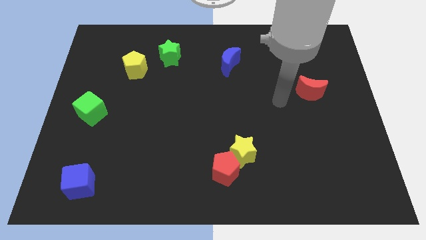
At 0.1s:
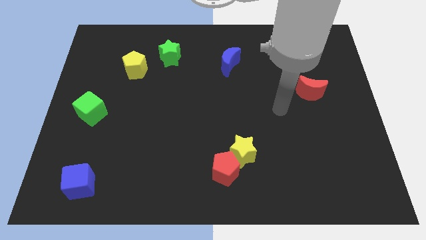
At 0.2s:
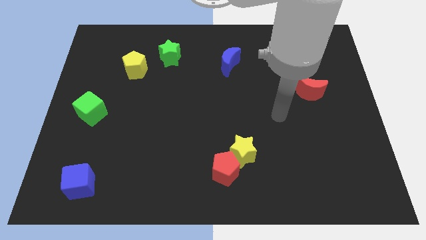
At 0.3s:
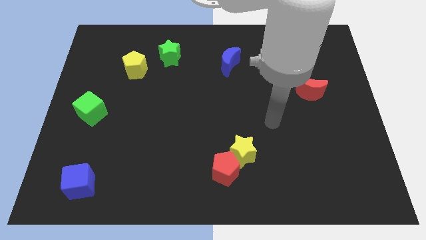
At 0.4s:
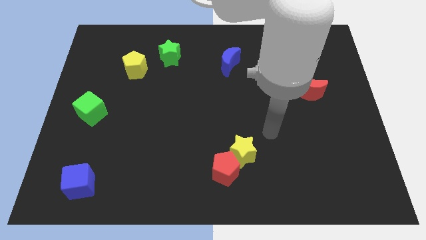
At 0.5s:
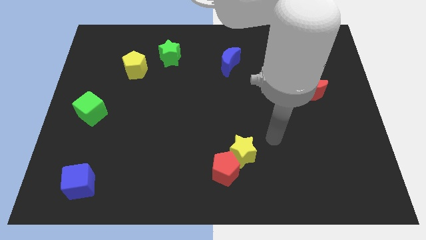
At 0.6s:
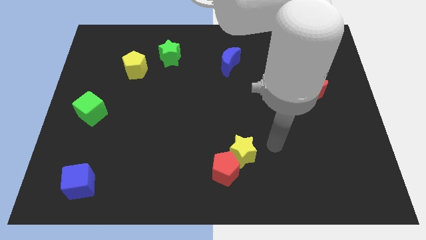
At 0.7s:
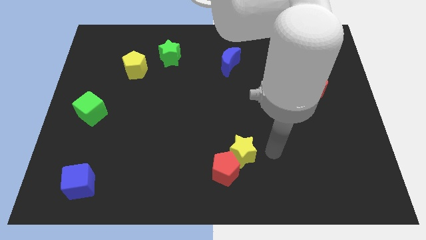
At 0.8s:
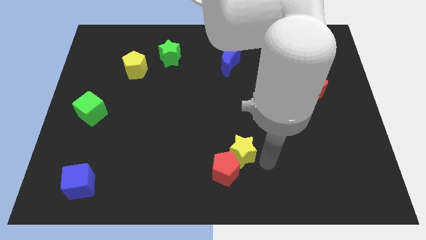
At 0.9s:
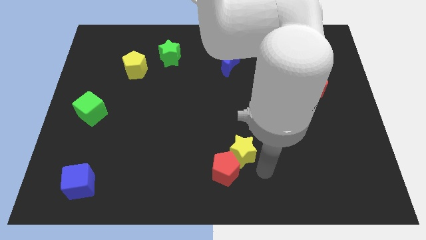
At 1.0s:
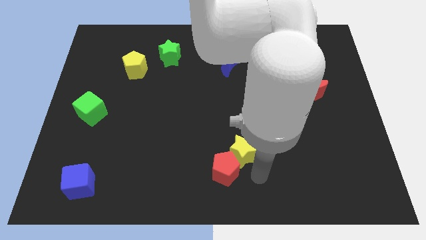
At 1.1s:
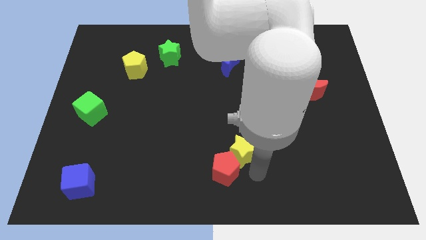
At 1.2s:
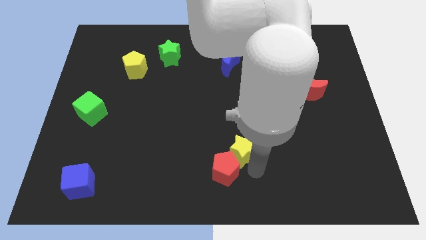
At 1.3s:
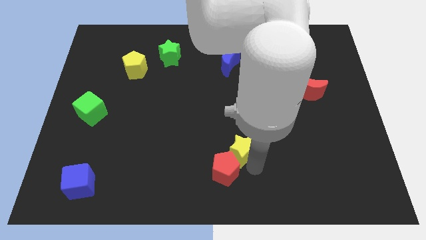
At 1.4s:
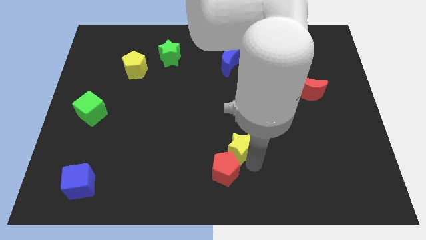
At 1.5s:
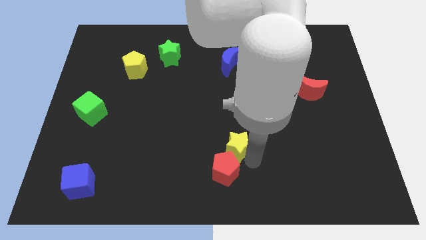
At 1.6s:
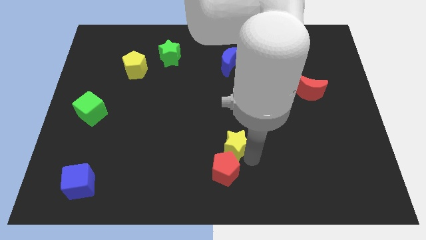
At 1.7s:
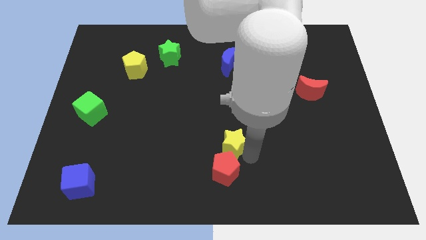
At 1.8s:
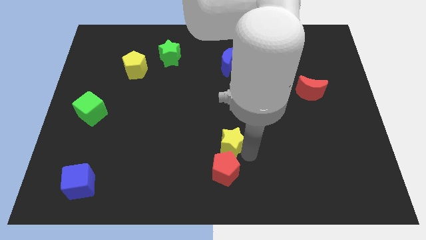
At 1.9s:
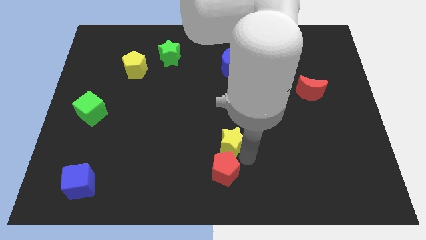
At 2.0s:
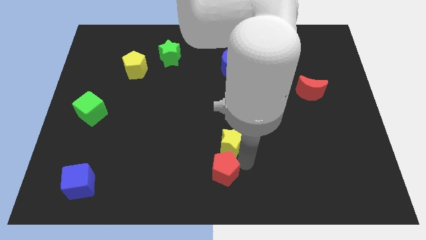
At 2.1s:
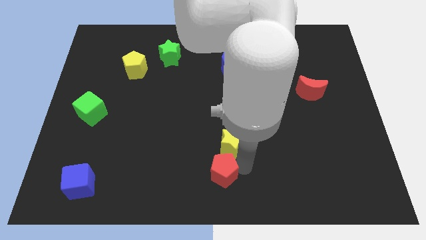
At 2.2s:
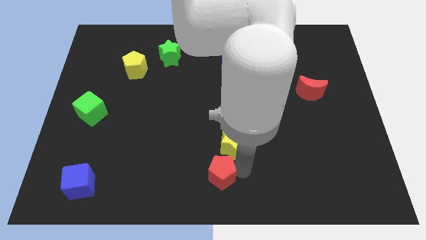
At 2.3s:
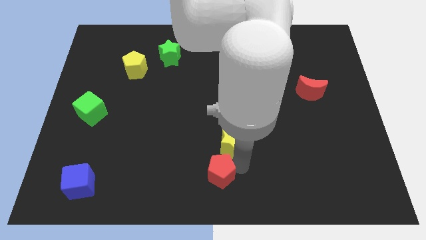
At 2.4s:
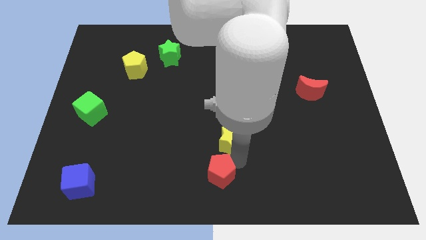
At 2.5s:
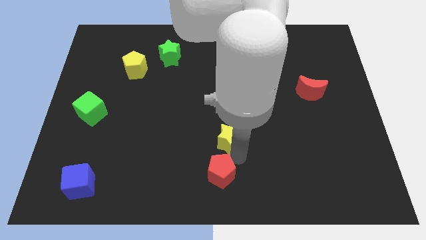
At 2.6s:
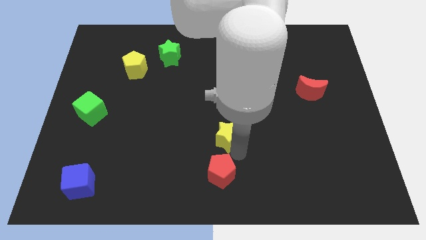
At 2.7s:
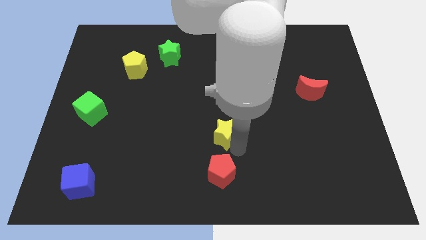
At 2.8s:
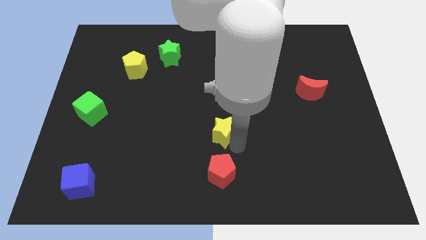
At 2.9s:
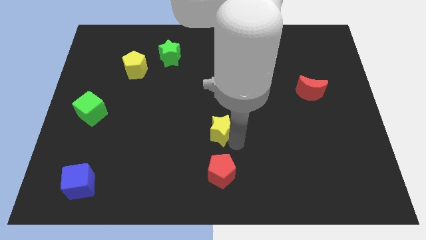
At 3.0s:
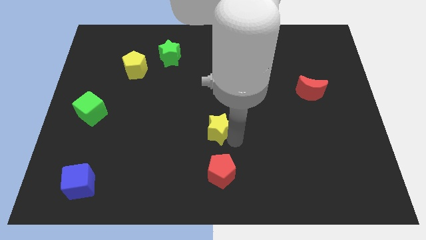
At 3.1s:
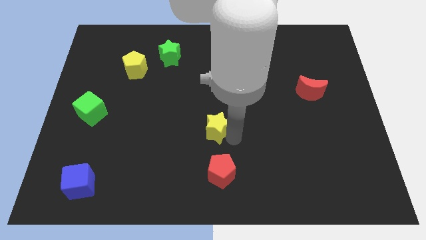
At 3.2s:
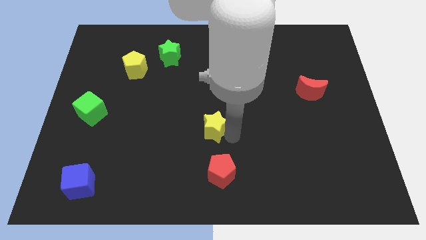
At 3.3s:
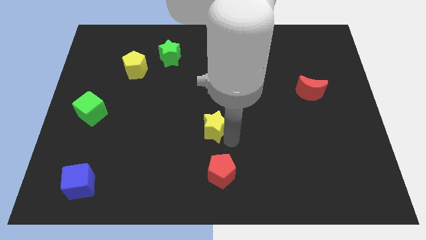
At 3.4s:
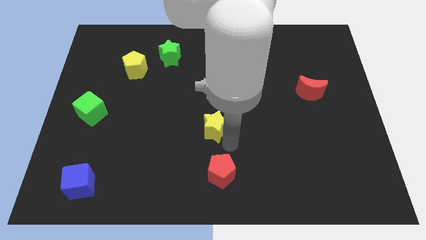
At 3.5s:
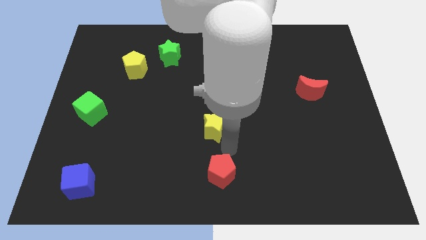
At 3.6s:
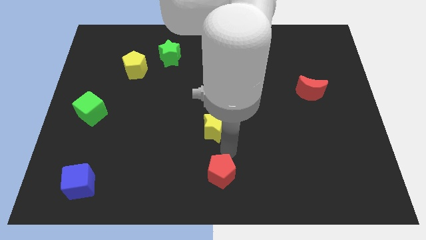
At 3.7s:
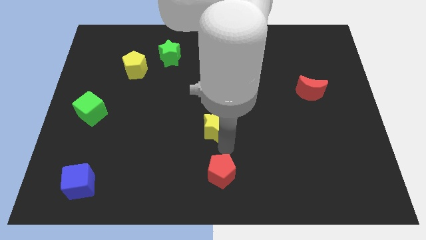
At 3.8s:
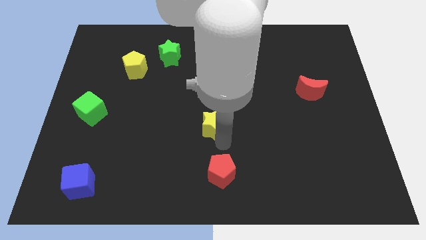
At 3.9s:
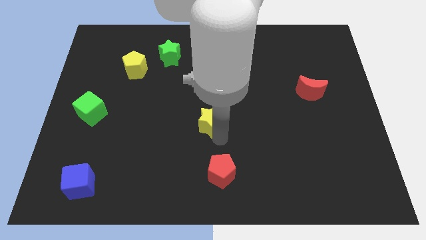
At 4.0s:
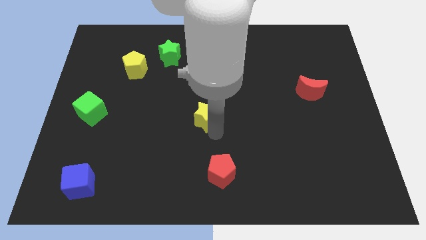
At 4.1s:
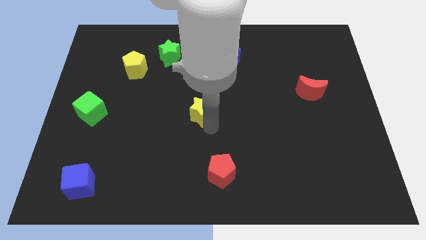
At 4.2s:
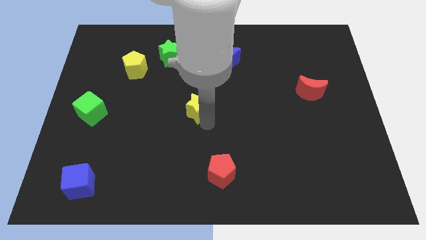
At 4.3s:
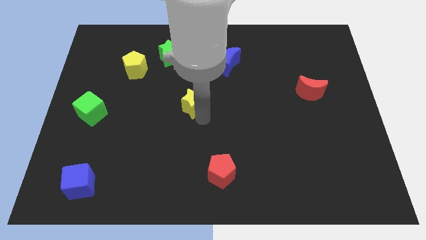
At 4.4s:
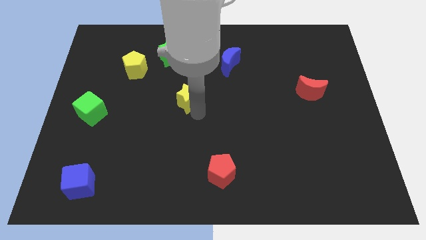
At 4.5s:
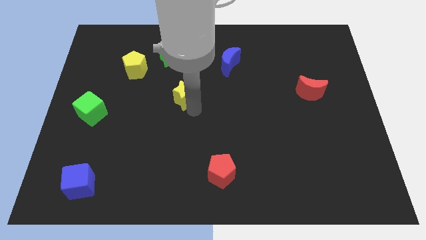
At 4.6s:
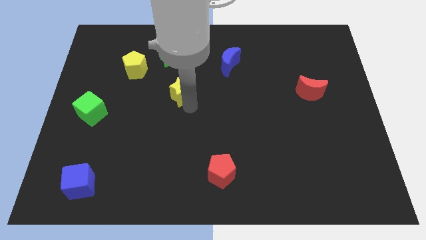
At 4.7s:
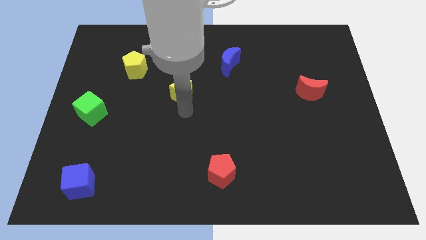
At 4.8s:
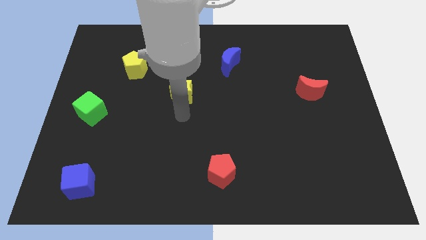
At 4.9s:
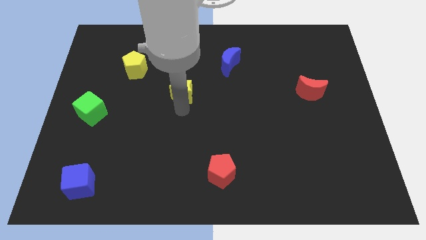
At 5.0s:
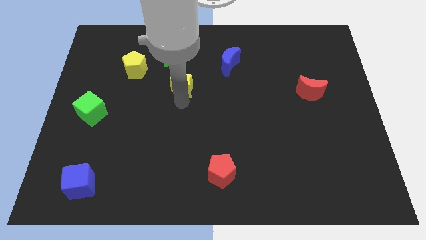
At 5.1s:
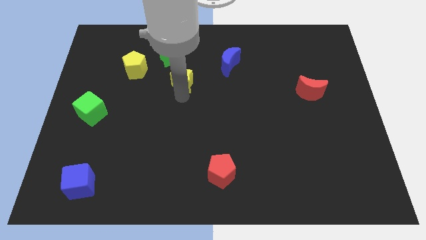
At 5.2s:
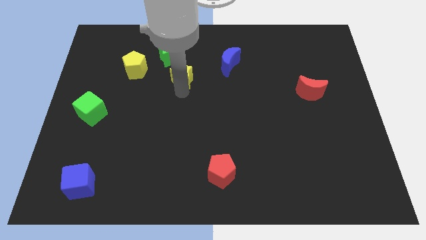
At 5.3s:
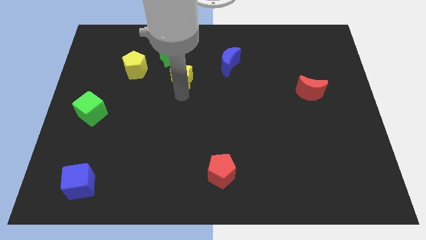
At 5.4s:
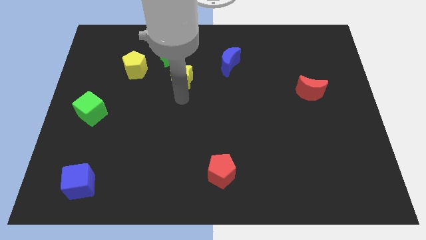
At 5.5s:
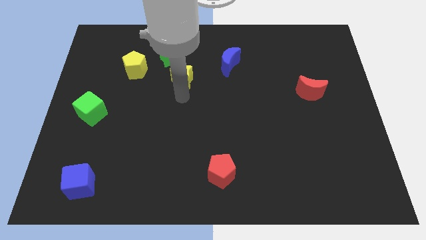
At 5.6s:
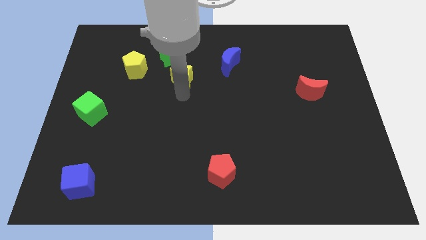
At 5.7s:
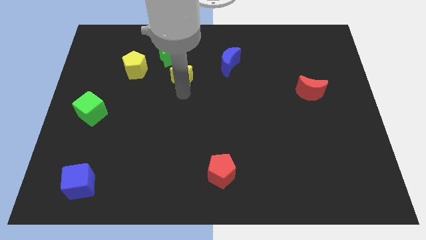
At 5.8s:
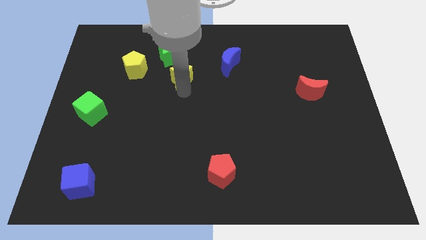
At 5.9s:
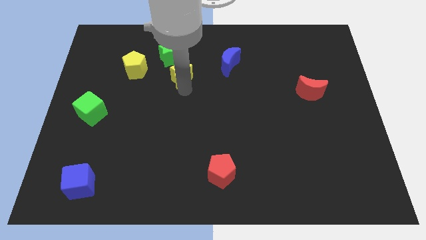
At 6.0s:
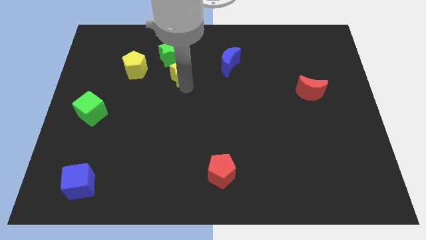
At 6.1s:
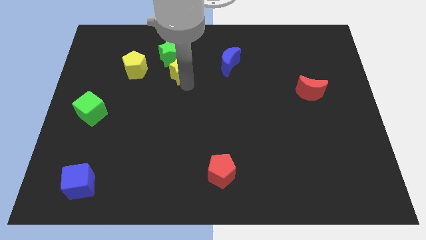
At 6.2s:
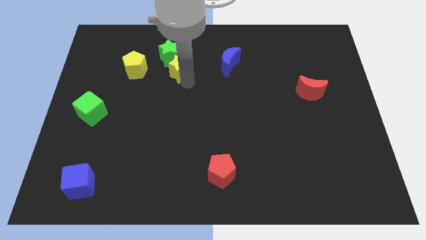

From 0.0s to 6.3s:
put the yellow star to the green star

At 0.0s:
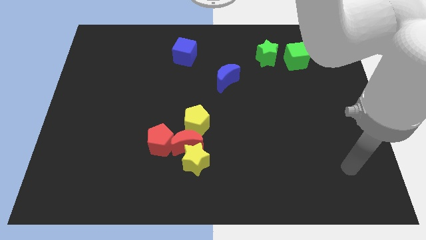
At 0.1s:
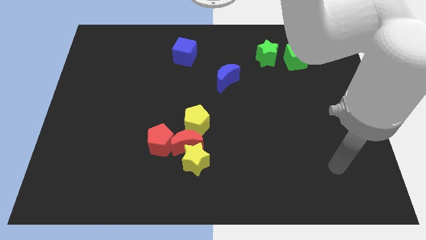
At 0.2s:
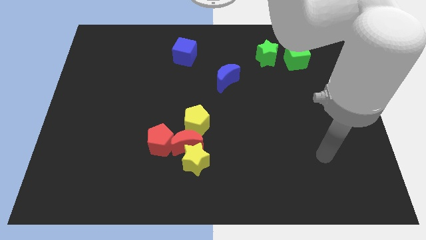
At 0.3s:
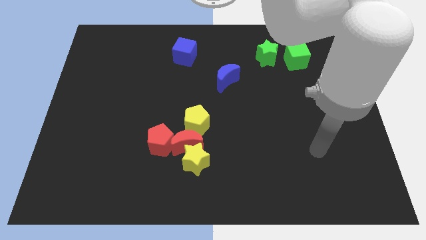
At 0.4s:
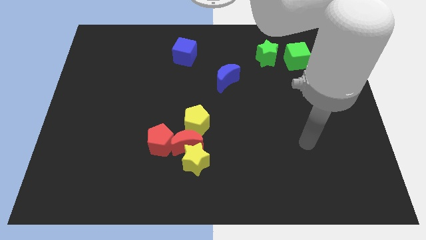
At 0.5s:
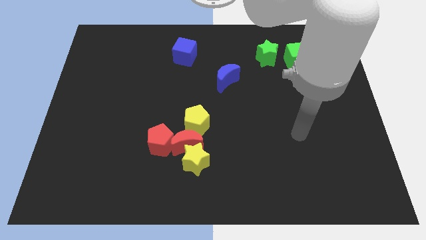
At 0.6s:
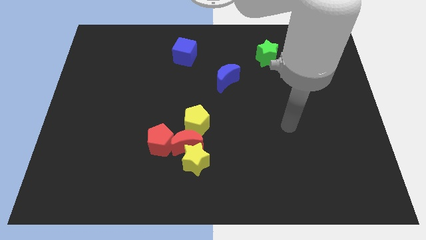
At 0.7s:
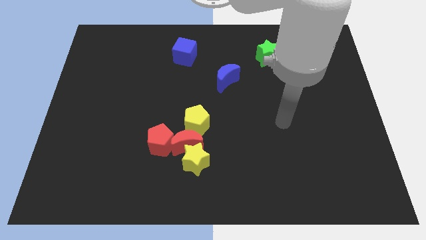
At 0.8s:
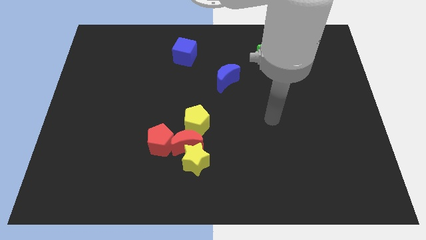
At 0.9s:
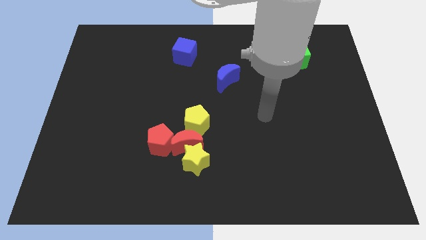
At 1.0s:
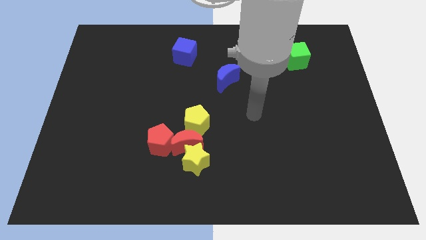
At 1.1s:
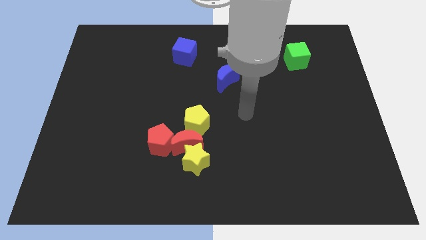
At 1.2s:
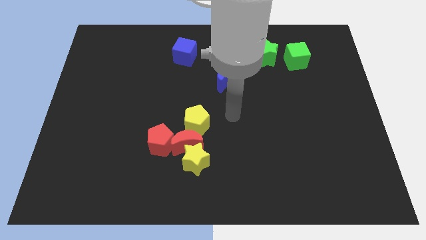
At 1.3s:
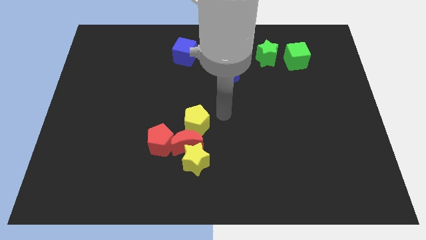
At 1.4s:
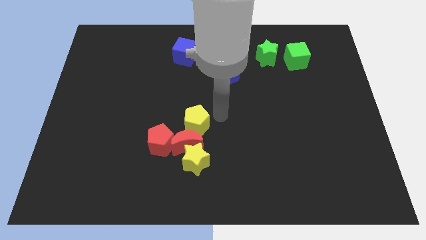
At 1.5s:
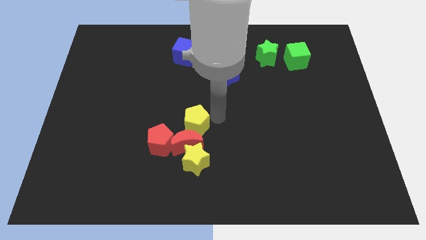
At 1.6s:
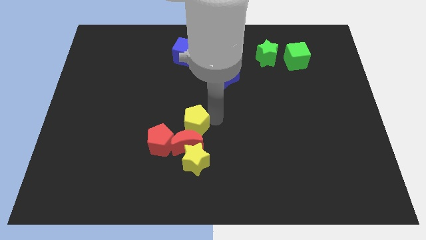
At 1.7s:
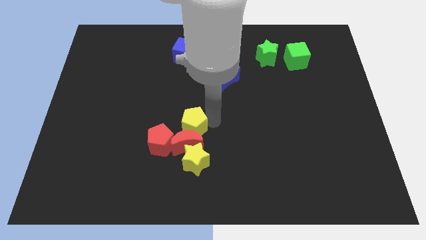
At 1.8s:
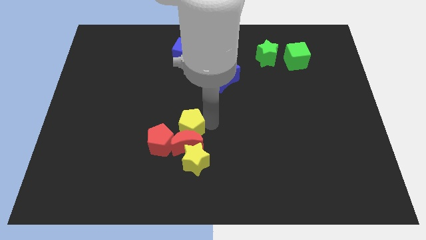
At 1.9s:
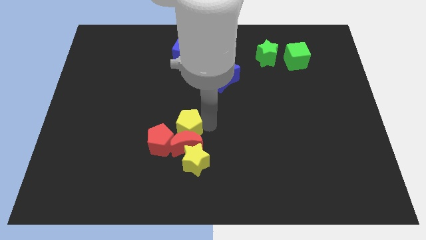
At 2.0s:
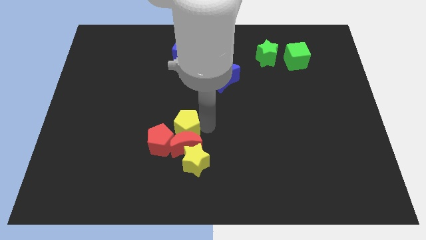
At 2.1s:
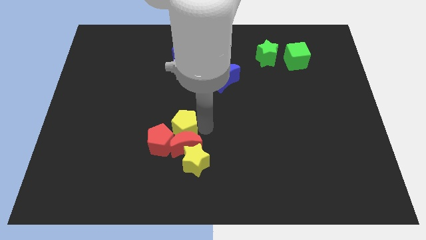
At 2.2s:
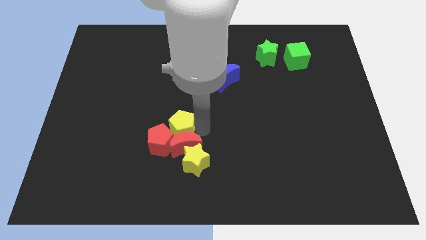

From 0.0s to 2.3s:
move the yellow pentagon to the red pentagon
